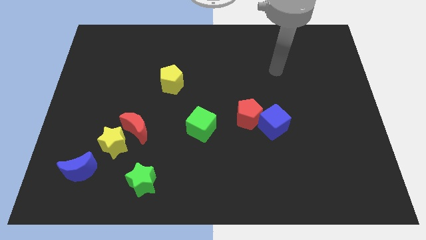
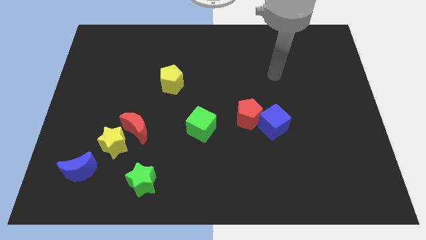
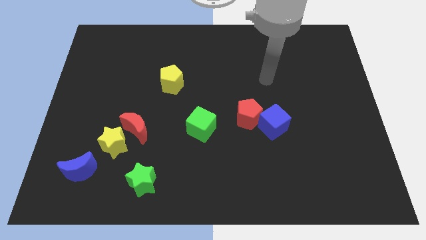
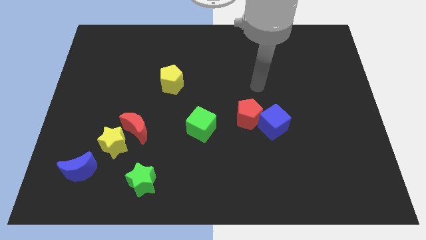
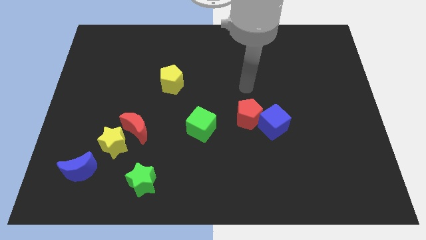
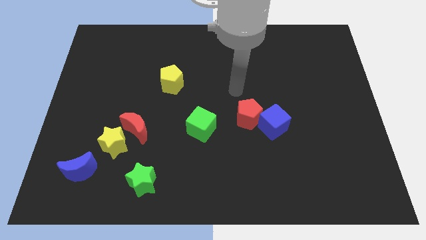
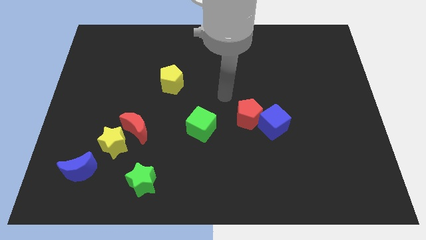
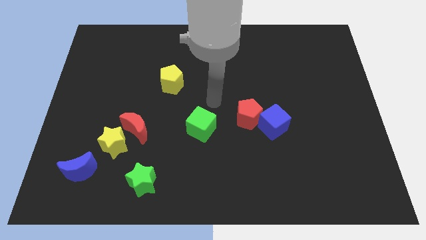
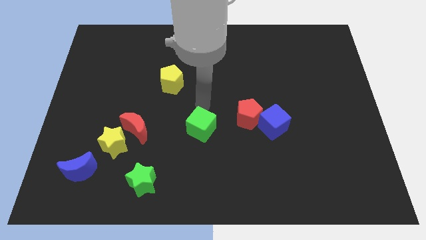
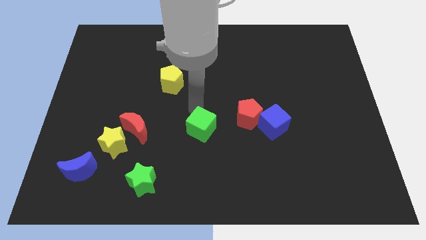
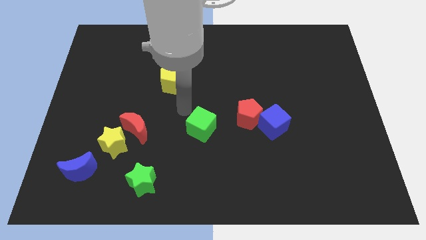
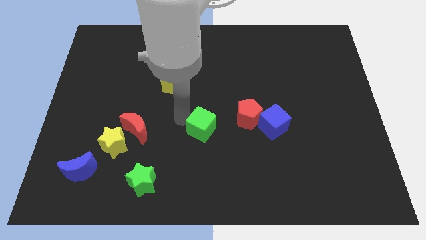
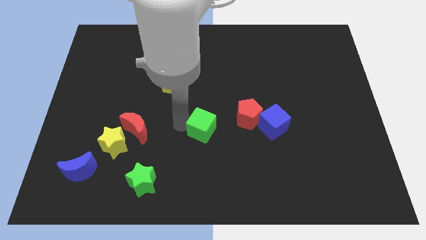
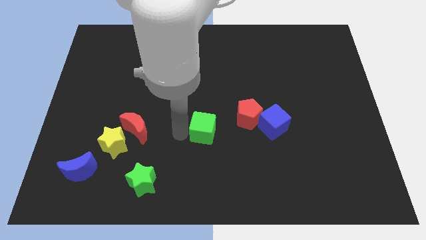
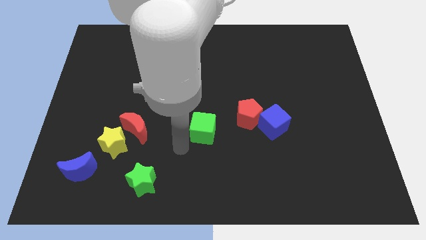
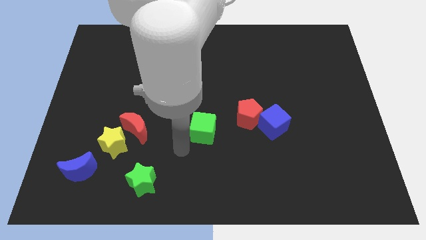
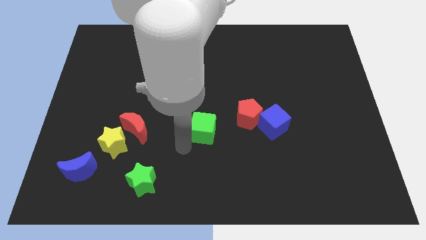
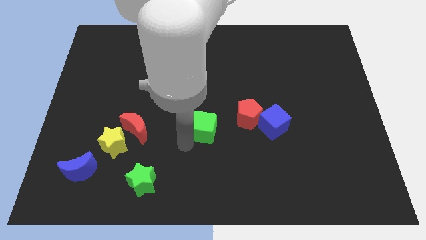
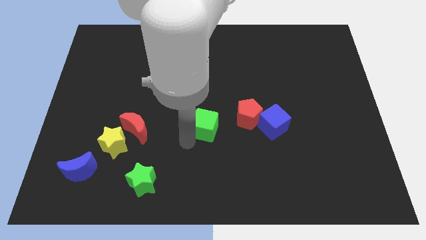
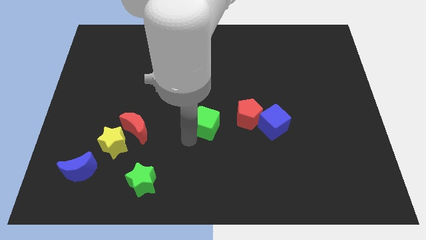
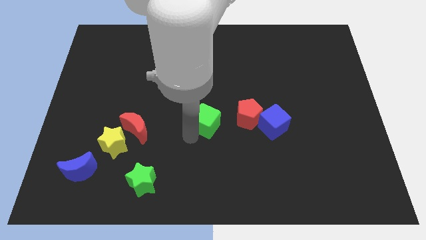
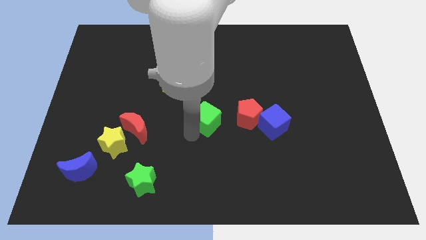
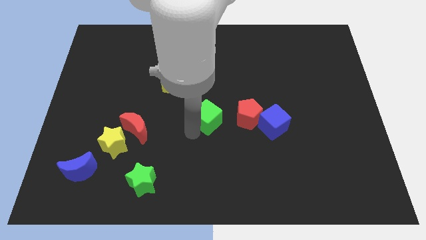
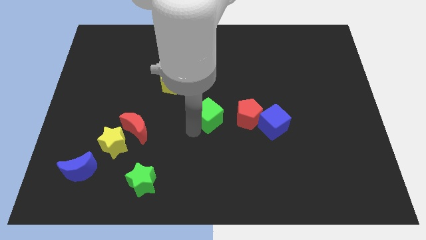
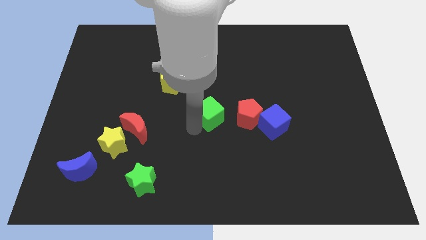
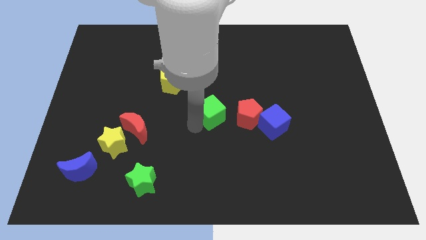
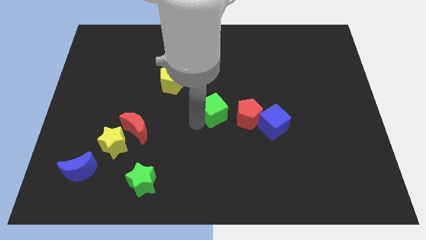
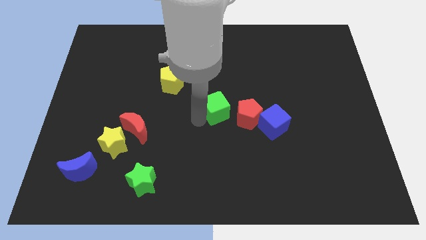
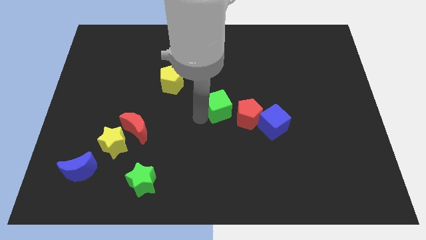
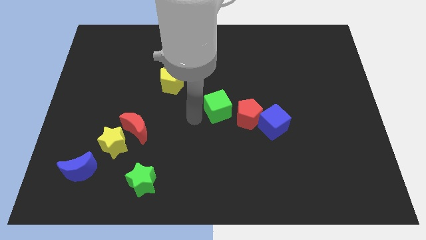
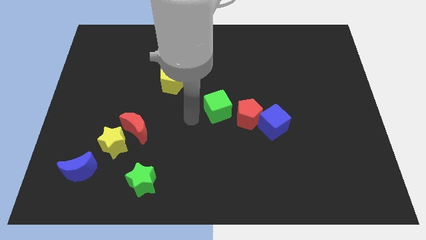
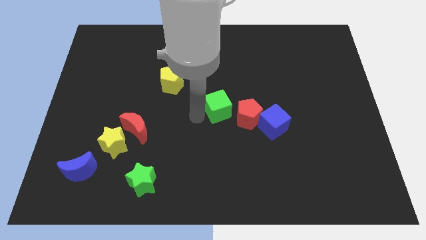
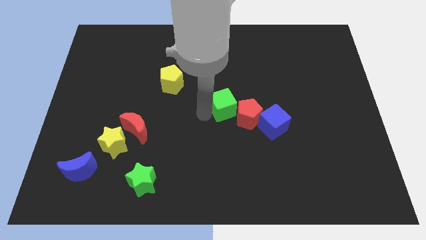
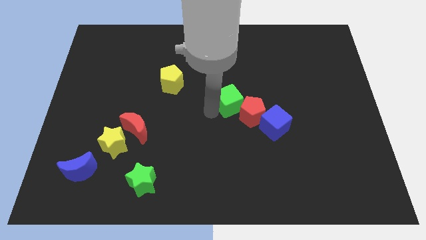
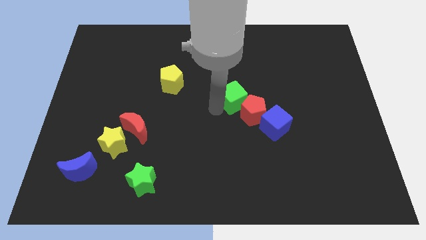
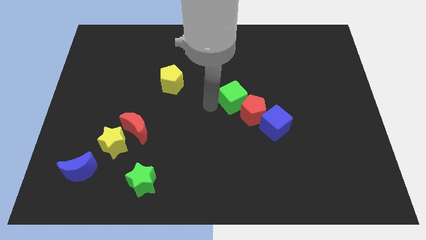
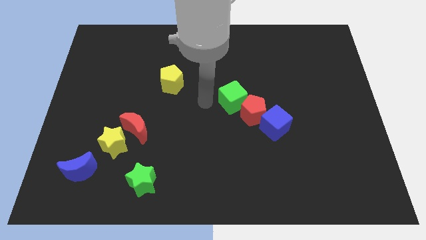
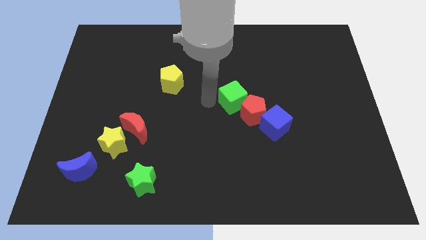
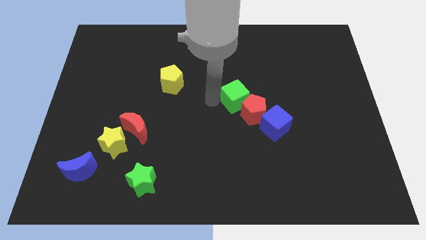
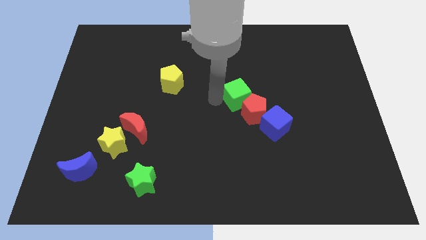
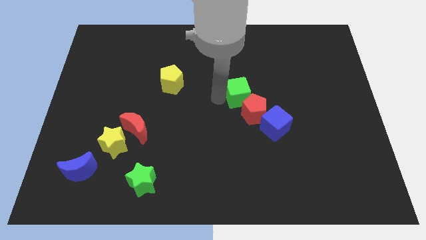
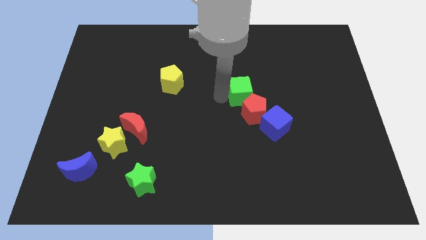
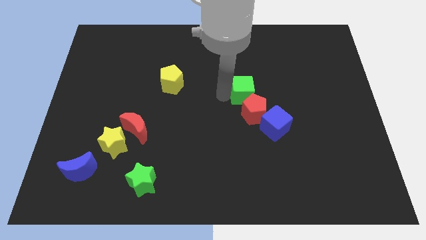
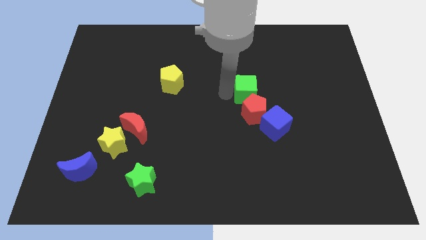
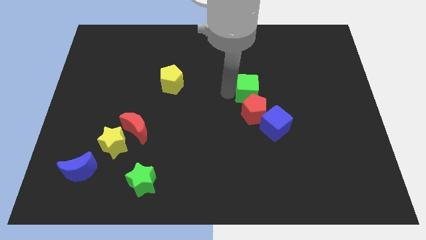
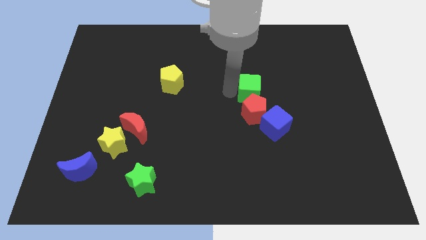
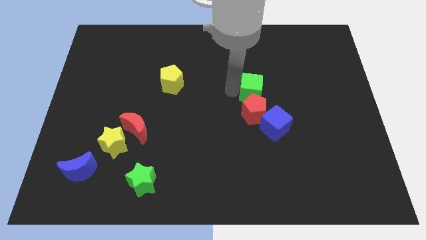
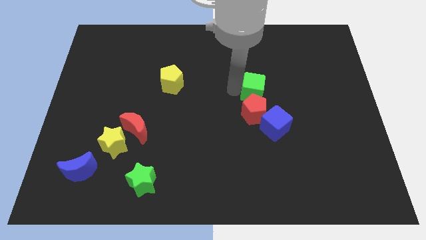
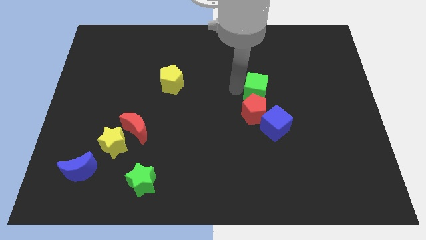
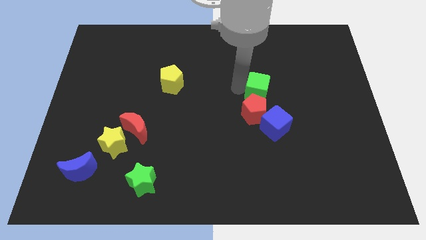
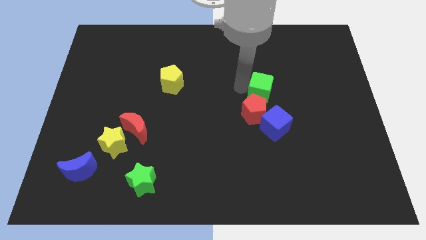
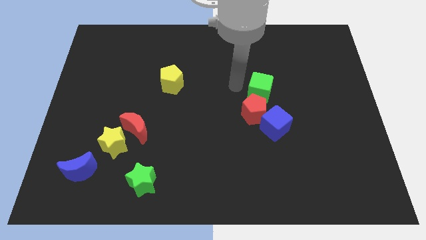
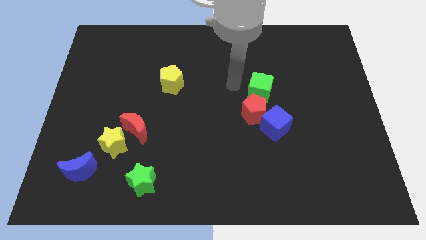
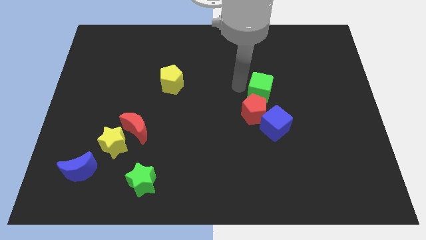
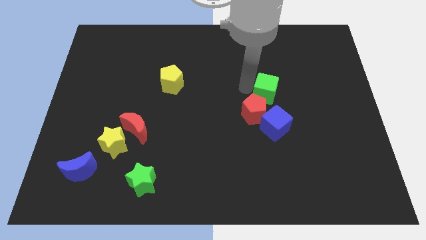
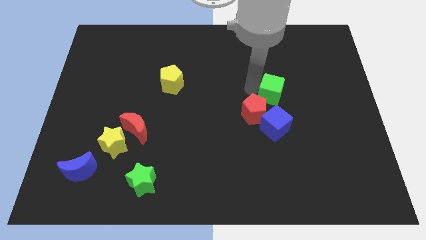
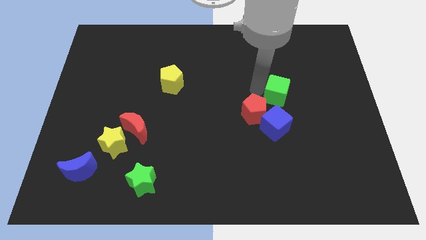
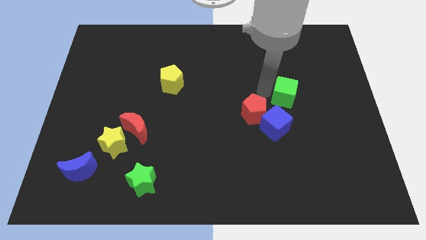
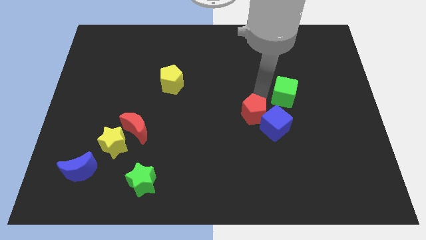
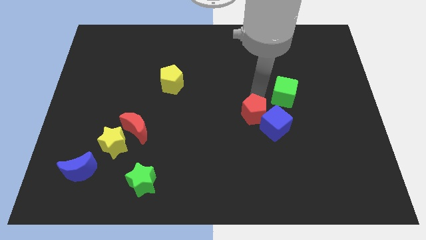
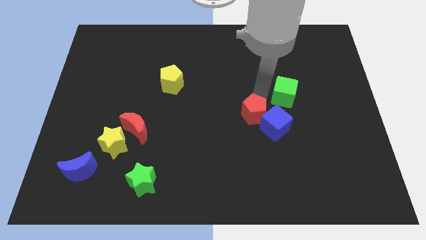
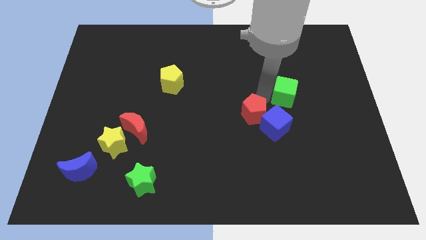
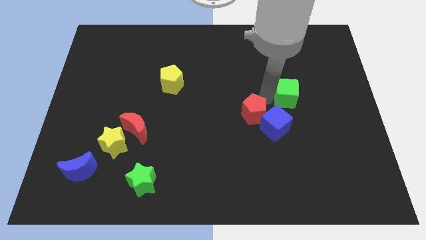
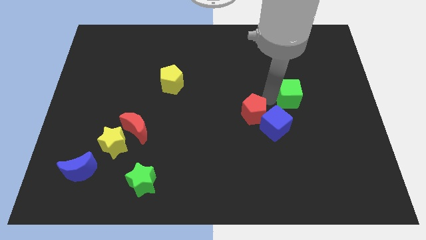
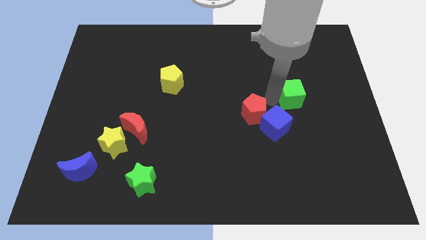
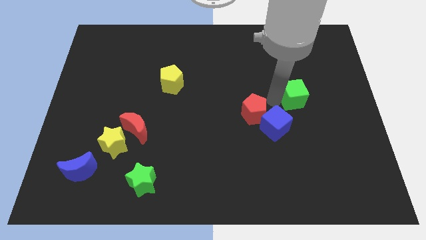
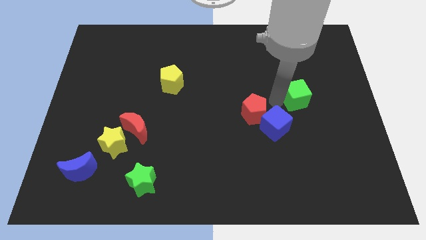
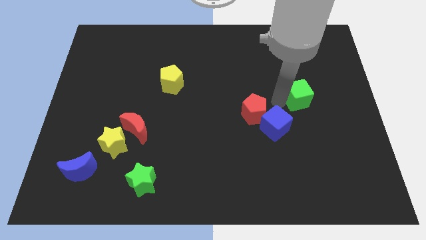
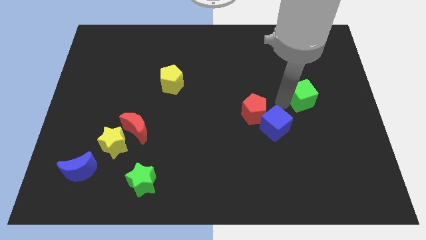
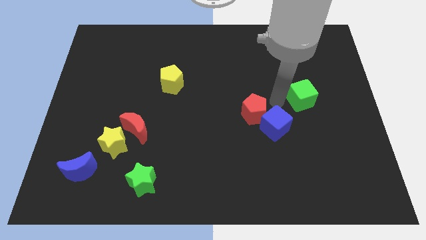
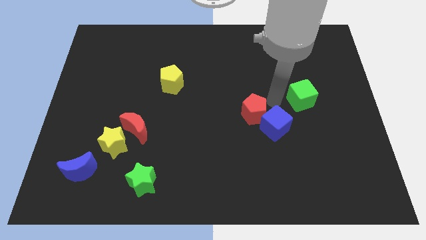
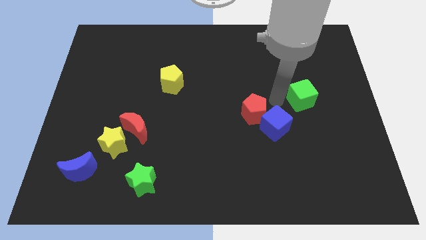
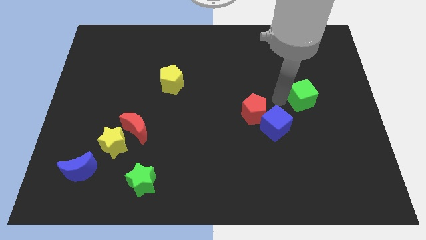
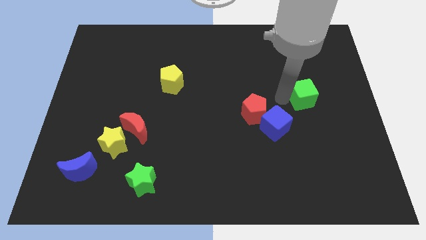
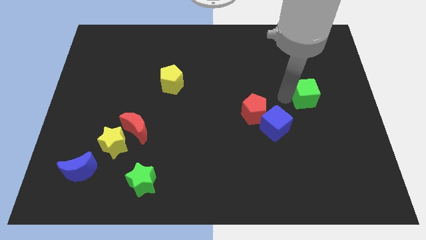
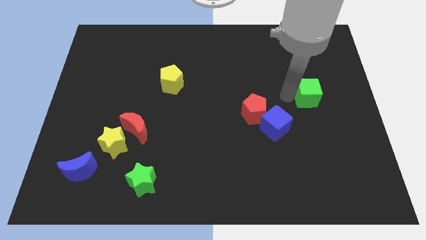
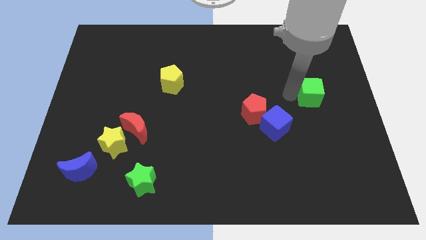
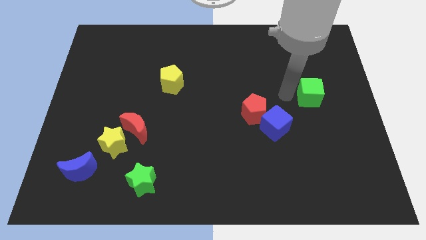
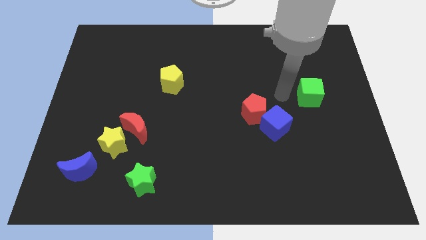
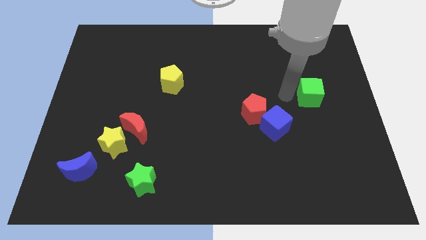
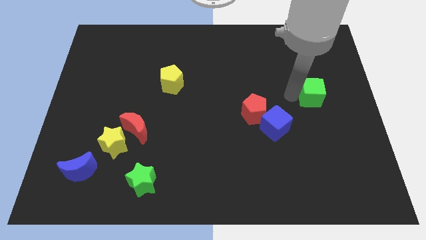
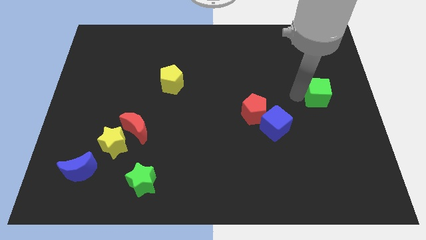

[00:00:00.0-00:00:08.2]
move the green cube to the right side
